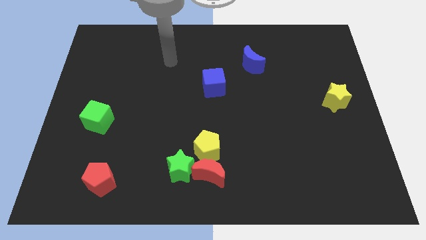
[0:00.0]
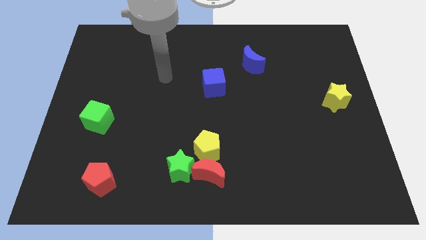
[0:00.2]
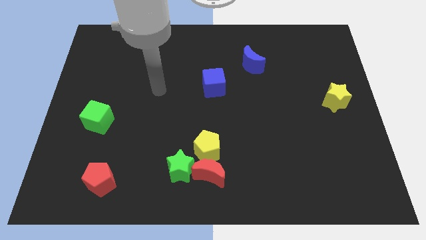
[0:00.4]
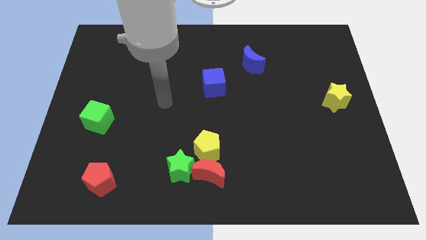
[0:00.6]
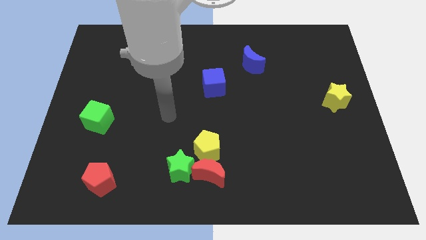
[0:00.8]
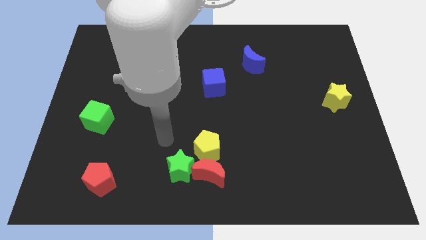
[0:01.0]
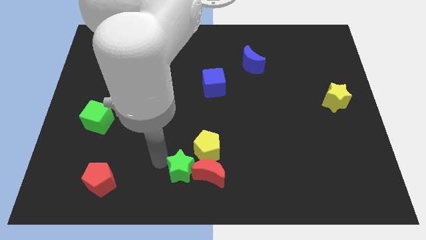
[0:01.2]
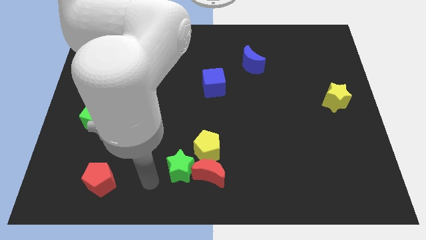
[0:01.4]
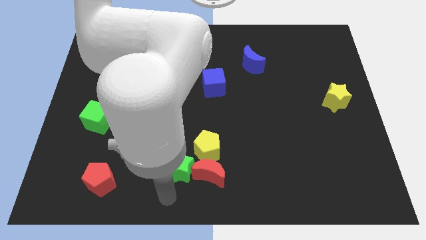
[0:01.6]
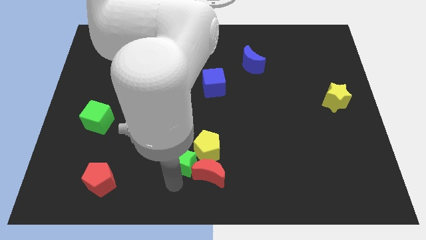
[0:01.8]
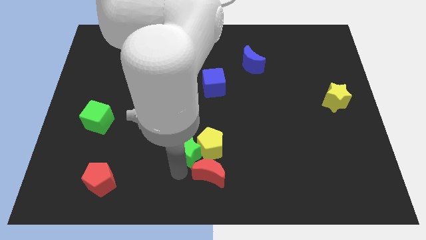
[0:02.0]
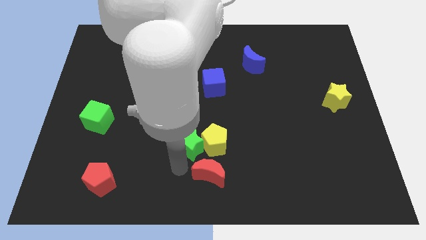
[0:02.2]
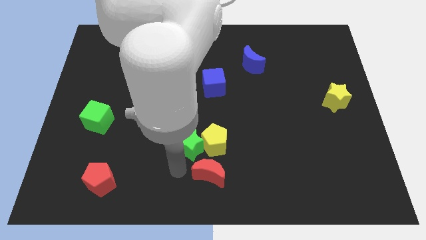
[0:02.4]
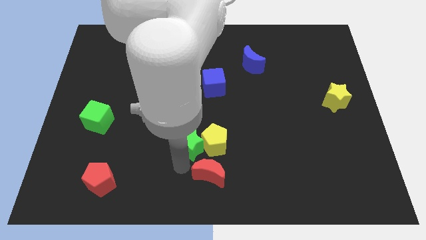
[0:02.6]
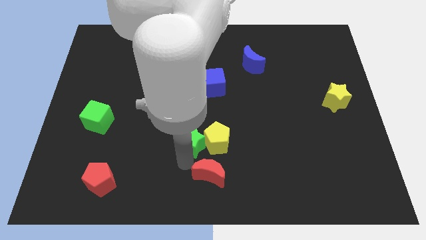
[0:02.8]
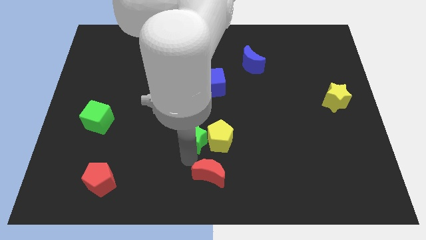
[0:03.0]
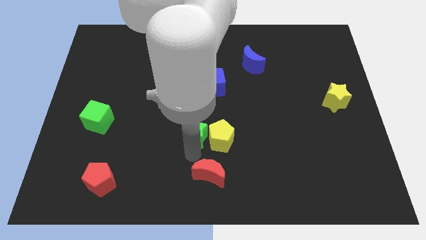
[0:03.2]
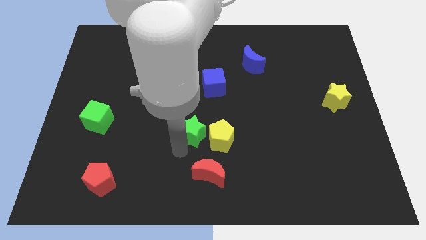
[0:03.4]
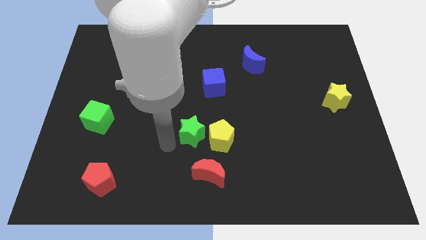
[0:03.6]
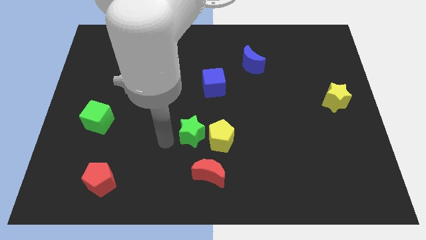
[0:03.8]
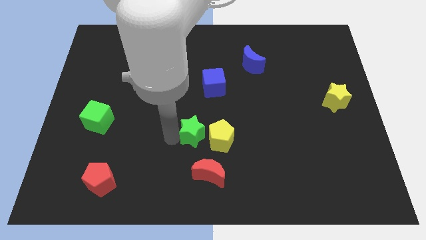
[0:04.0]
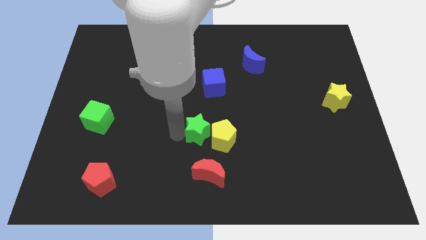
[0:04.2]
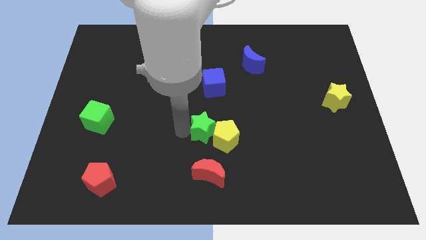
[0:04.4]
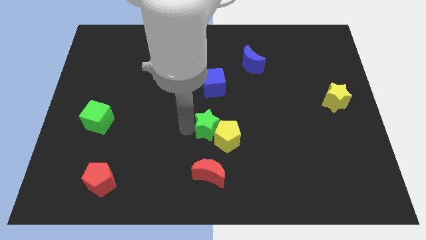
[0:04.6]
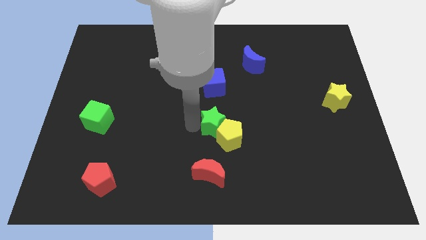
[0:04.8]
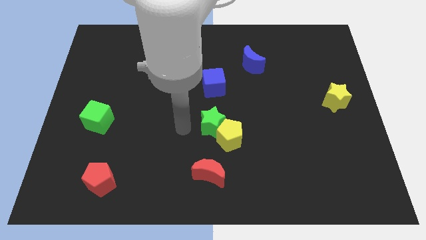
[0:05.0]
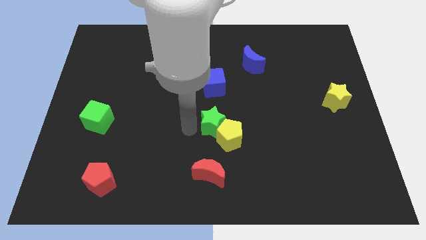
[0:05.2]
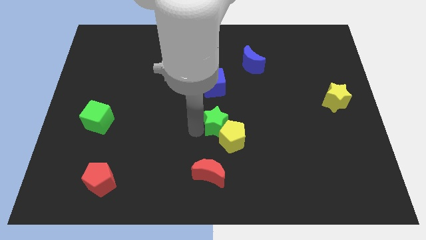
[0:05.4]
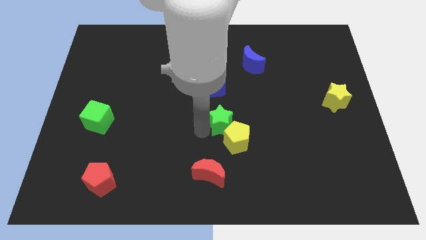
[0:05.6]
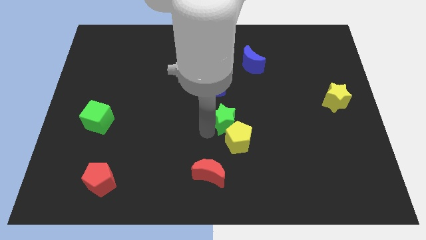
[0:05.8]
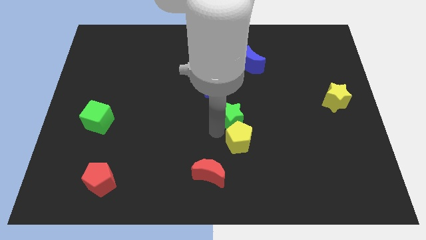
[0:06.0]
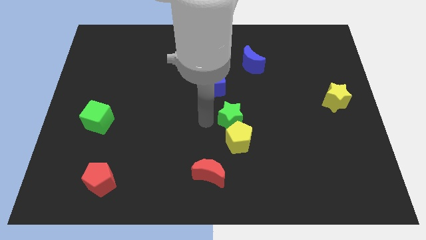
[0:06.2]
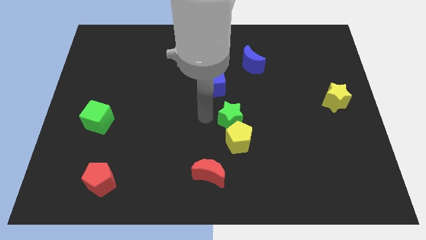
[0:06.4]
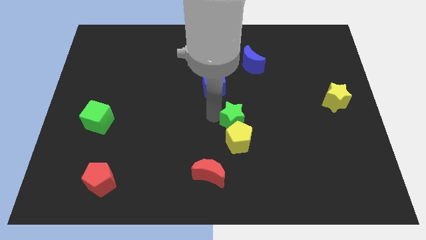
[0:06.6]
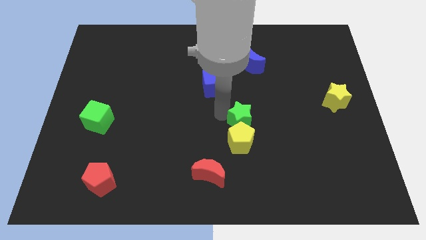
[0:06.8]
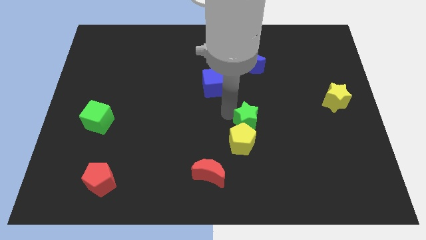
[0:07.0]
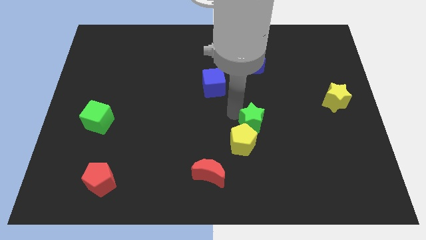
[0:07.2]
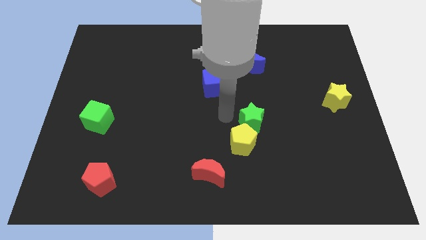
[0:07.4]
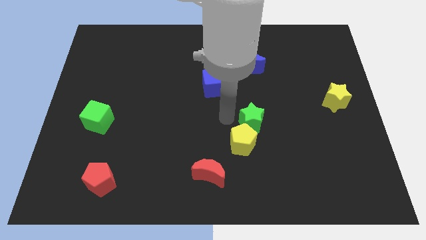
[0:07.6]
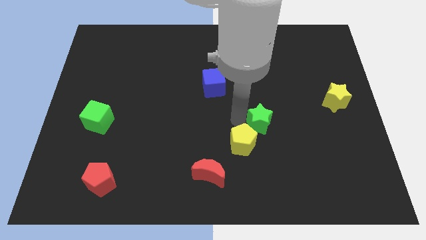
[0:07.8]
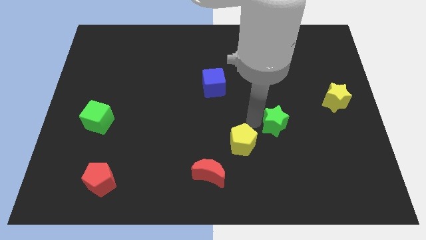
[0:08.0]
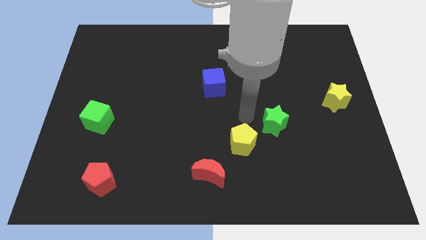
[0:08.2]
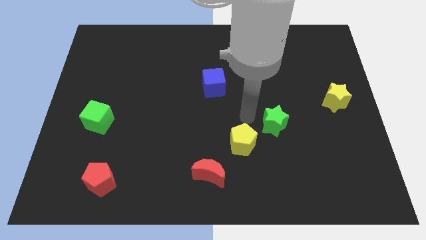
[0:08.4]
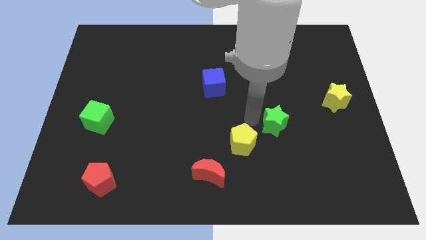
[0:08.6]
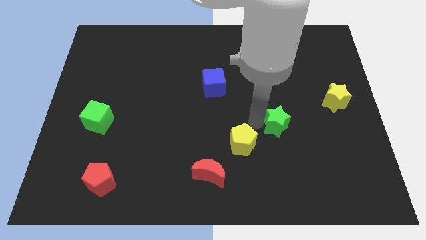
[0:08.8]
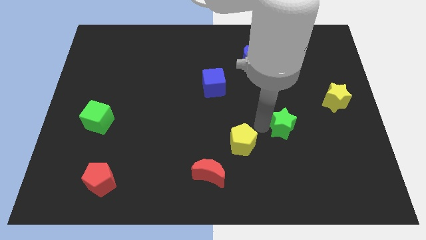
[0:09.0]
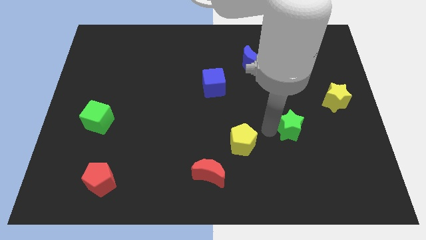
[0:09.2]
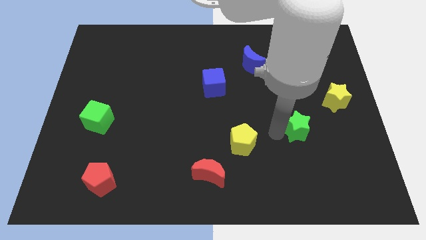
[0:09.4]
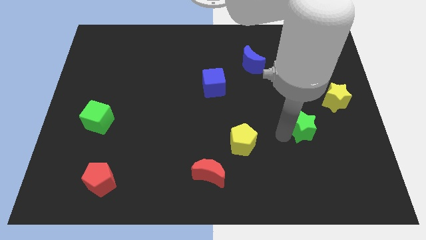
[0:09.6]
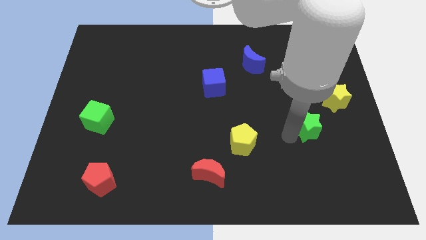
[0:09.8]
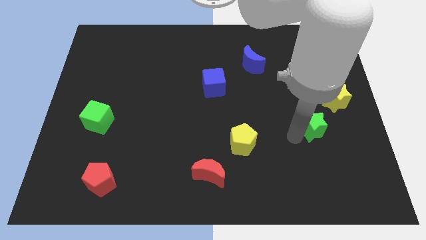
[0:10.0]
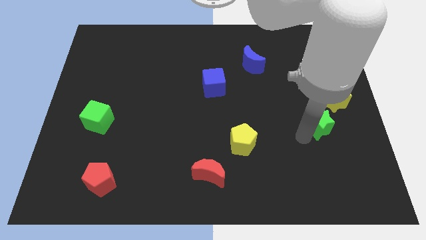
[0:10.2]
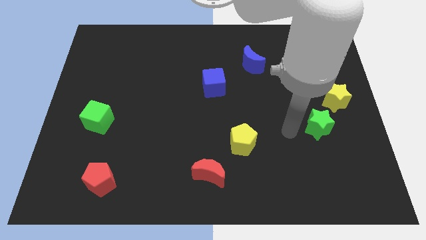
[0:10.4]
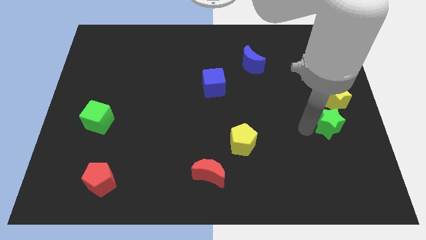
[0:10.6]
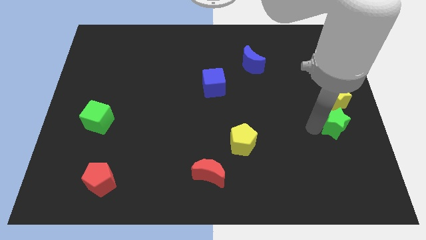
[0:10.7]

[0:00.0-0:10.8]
slide the green star to the center right
